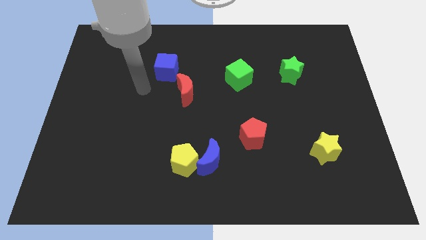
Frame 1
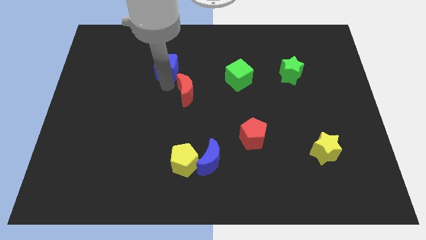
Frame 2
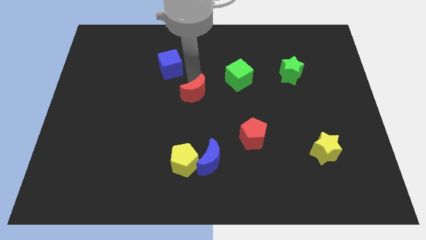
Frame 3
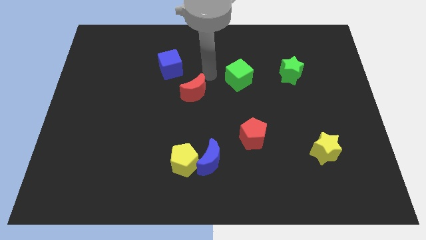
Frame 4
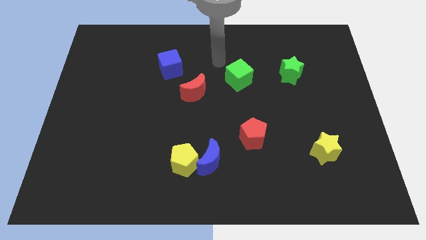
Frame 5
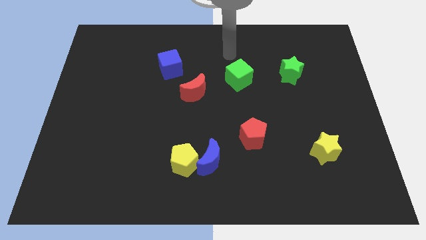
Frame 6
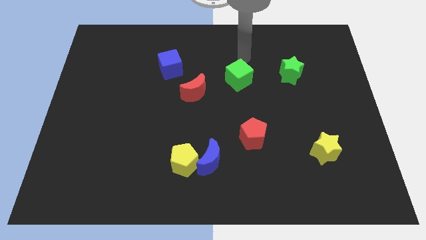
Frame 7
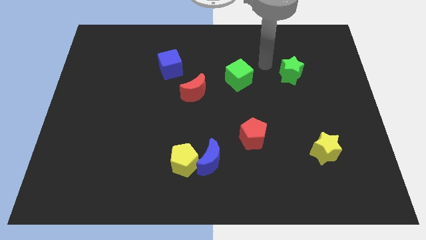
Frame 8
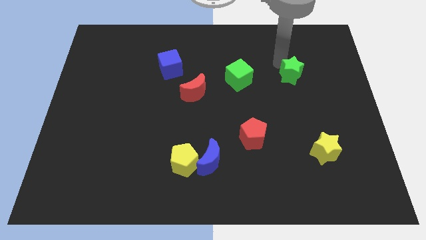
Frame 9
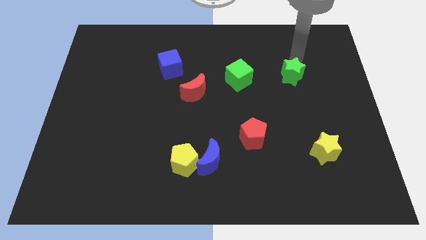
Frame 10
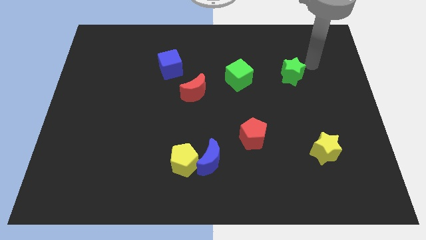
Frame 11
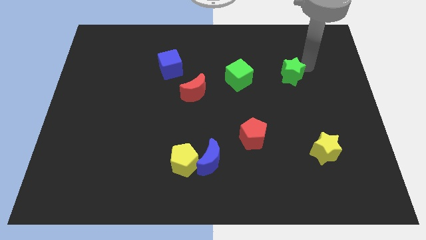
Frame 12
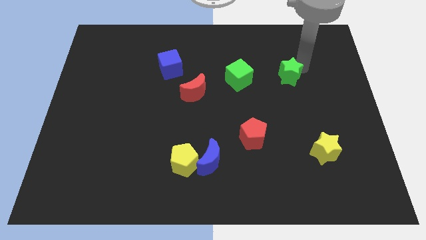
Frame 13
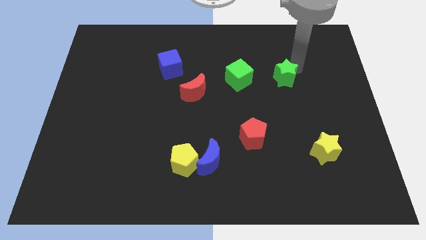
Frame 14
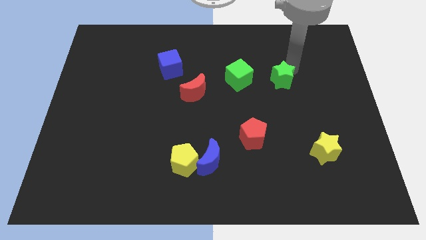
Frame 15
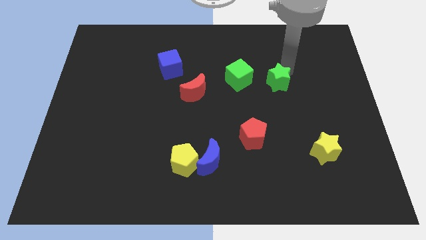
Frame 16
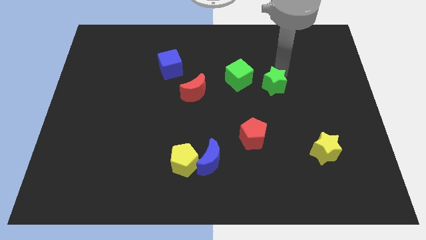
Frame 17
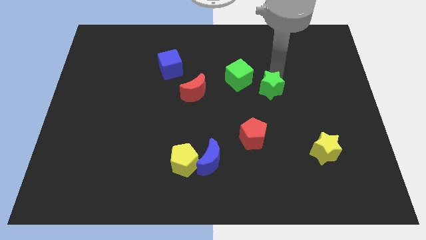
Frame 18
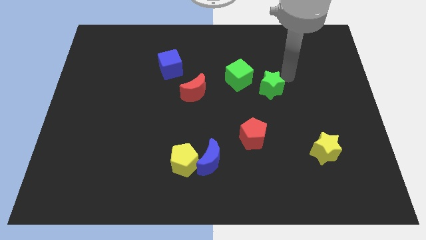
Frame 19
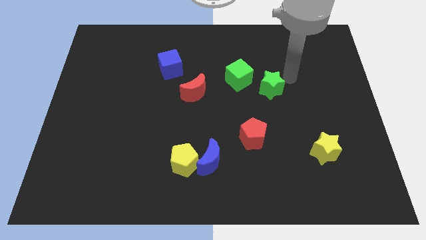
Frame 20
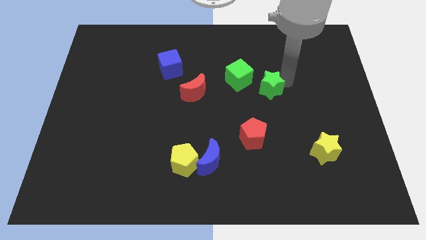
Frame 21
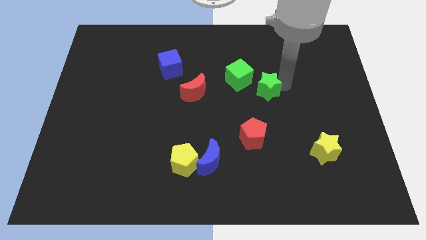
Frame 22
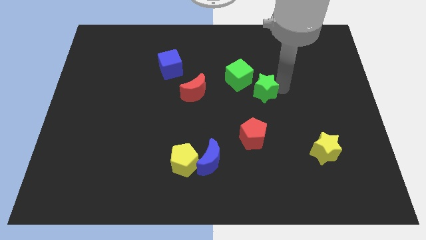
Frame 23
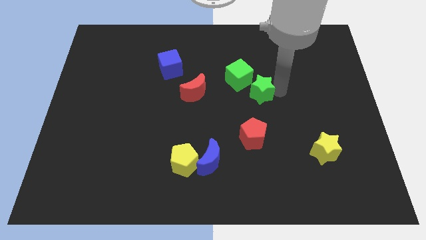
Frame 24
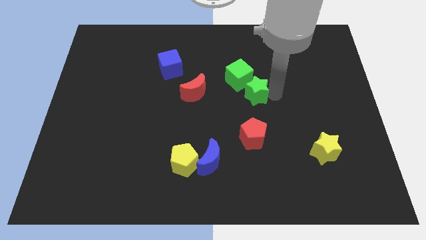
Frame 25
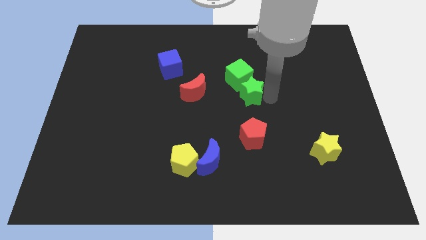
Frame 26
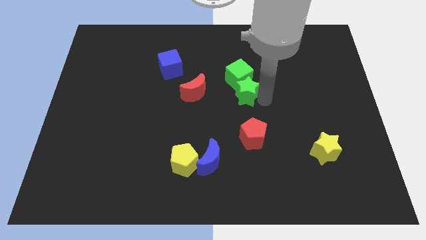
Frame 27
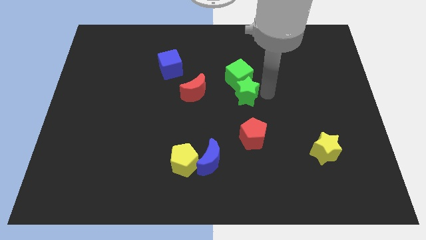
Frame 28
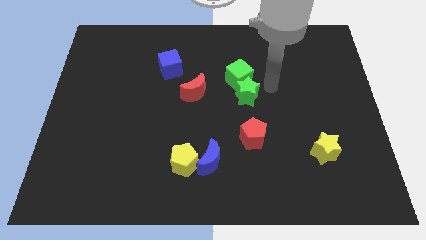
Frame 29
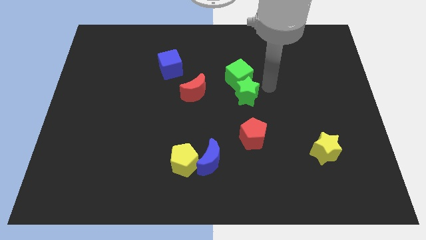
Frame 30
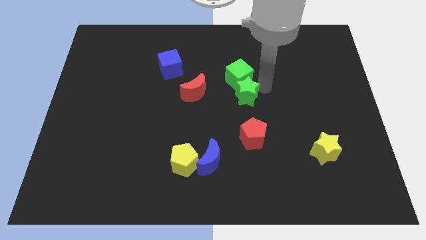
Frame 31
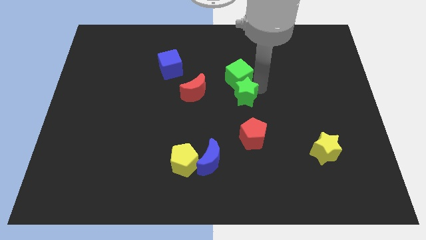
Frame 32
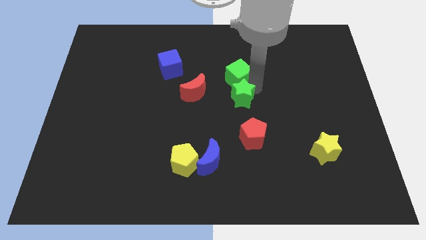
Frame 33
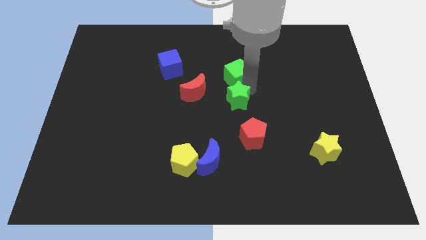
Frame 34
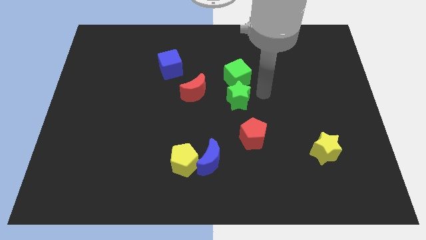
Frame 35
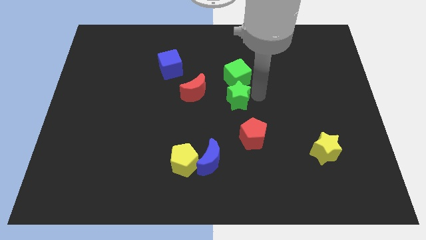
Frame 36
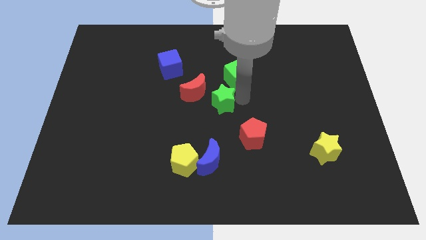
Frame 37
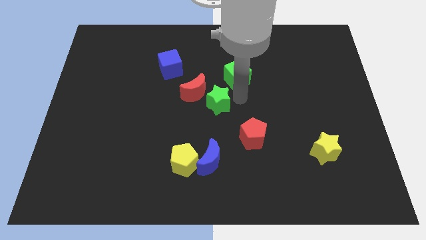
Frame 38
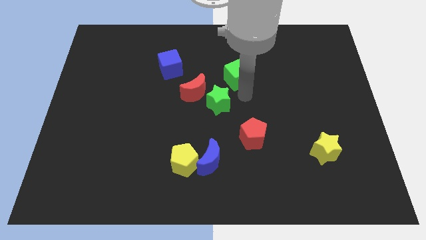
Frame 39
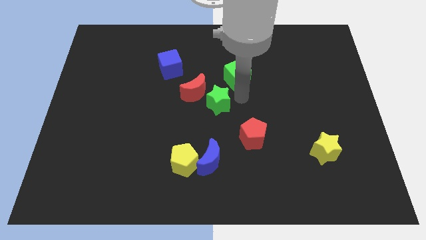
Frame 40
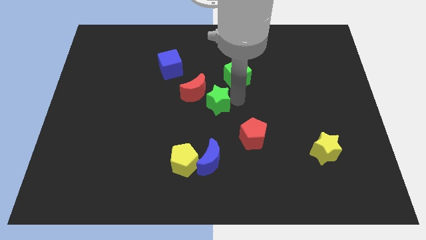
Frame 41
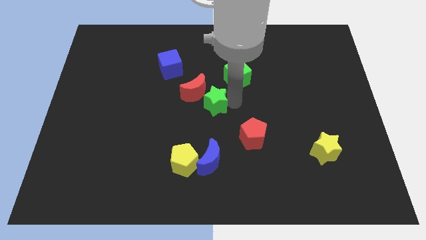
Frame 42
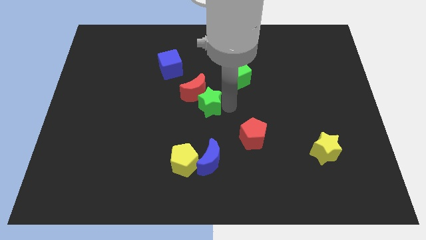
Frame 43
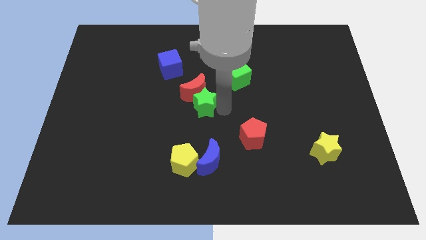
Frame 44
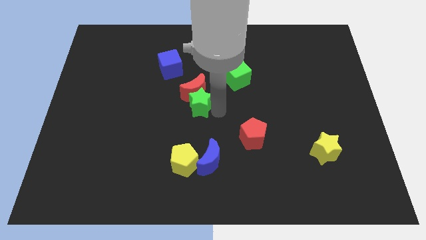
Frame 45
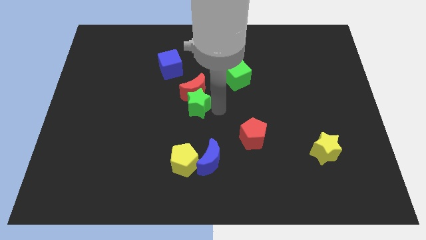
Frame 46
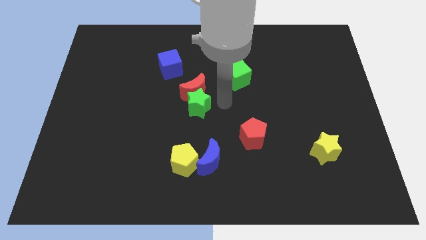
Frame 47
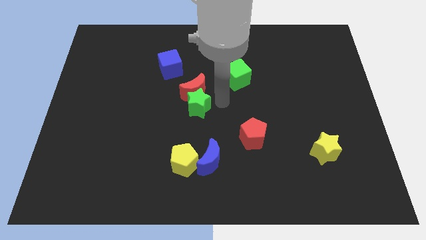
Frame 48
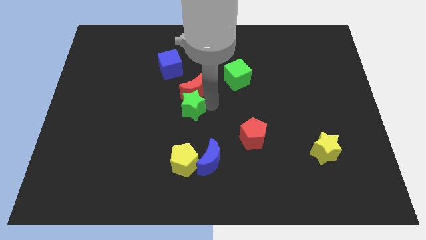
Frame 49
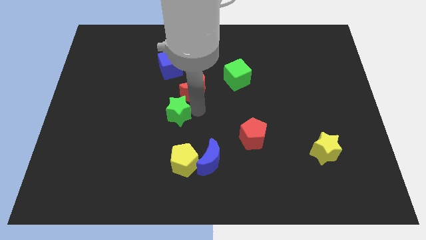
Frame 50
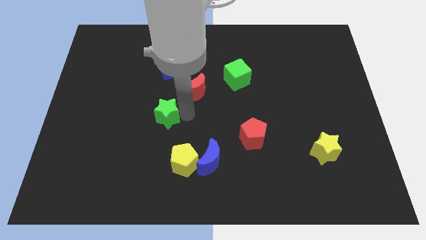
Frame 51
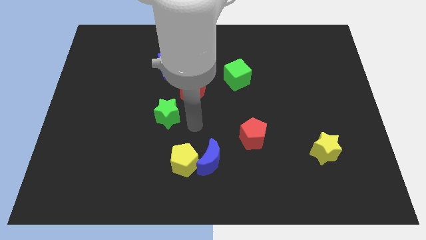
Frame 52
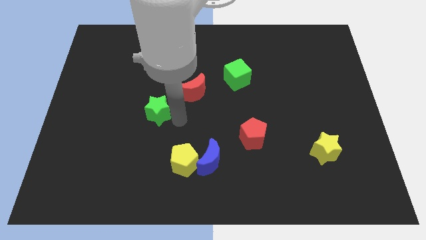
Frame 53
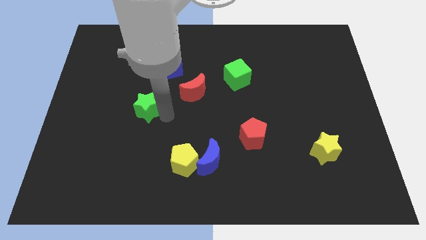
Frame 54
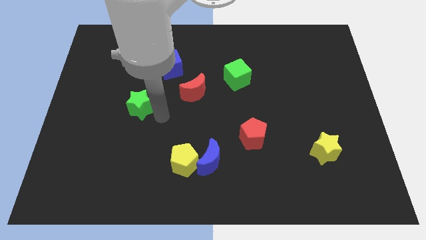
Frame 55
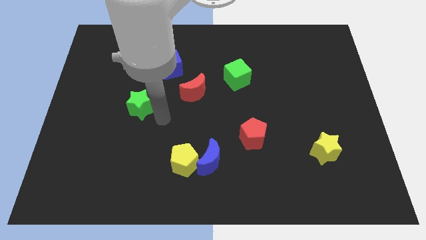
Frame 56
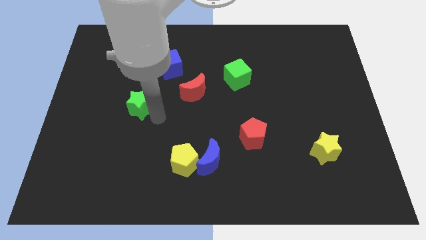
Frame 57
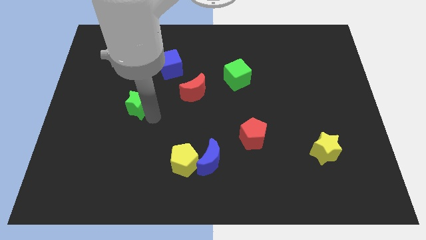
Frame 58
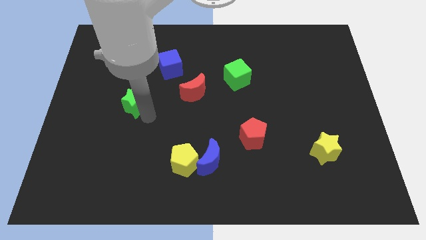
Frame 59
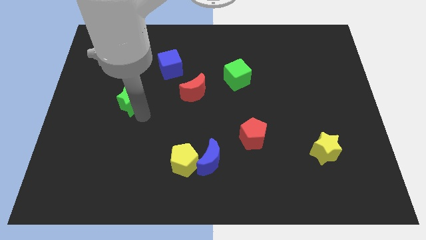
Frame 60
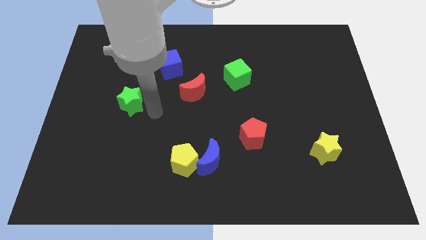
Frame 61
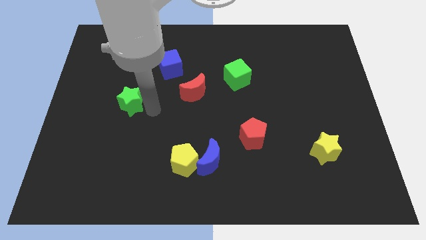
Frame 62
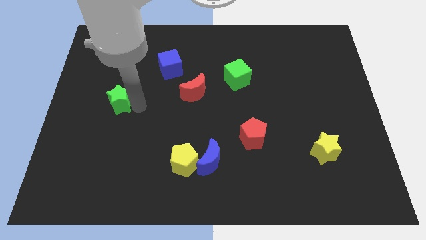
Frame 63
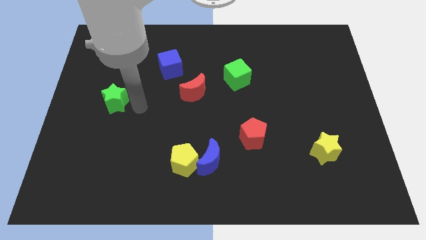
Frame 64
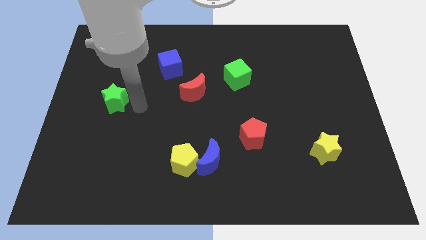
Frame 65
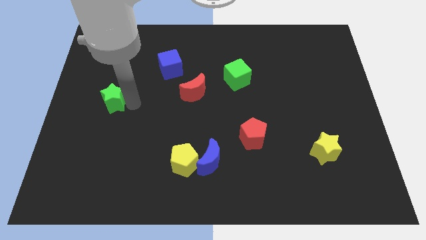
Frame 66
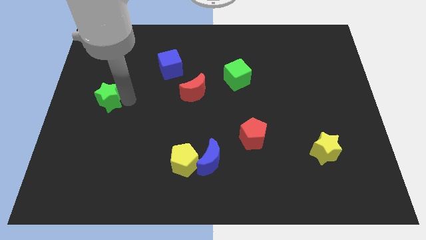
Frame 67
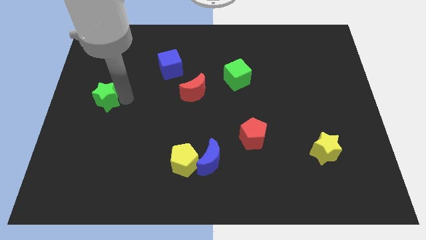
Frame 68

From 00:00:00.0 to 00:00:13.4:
put the green star to the left side
